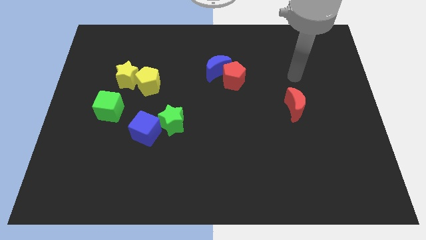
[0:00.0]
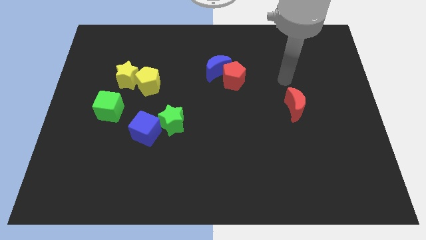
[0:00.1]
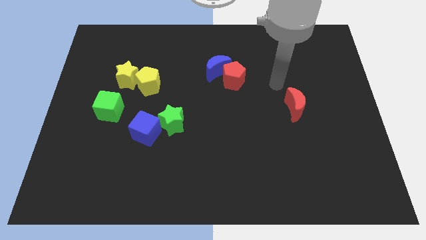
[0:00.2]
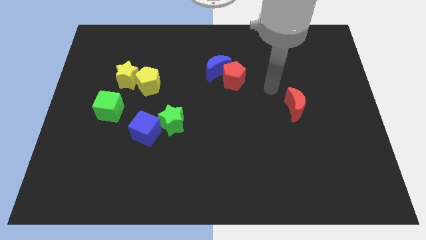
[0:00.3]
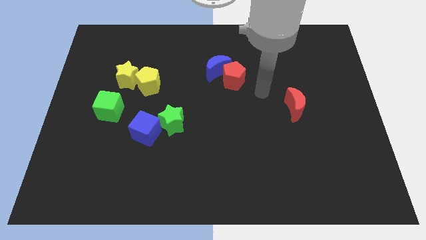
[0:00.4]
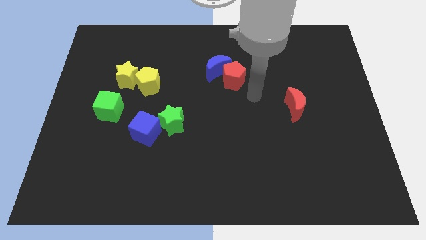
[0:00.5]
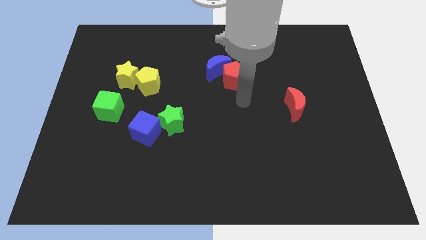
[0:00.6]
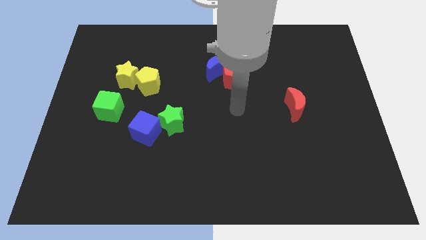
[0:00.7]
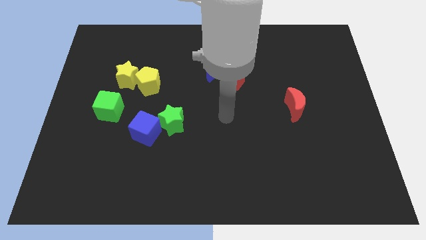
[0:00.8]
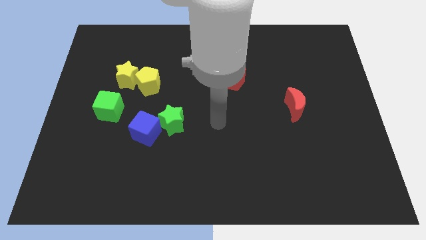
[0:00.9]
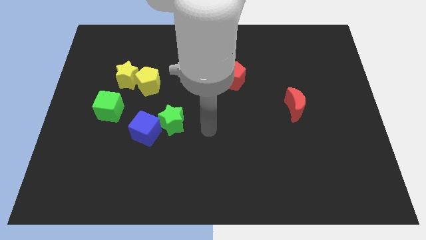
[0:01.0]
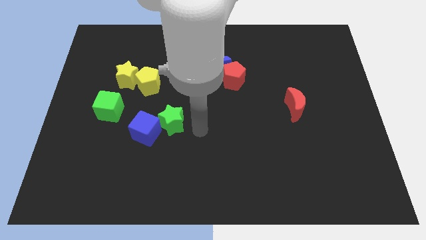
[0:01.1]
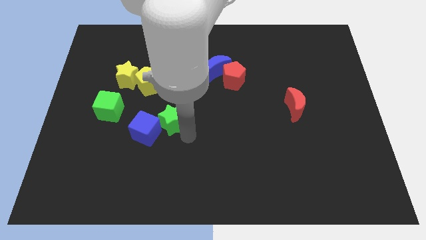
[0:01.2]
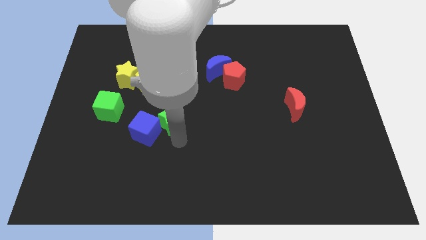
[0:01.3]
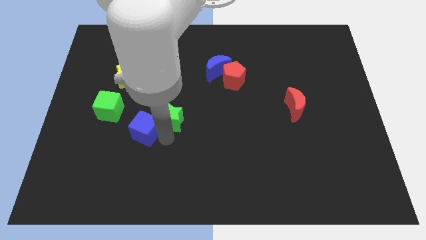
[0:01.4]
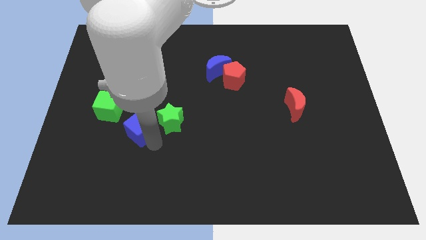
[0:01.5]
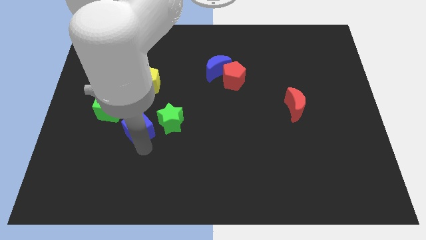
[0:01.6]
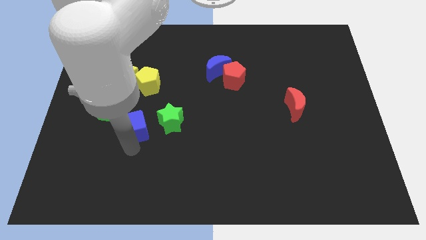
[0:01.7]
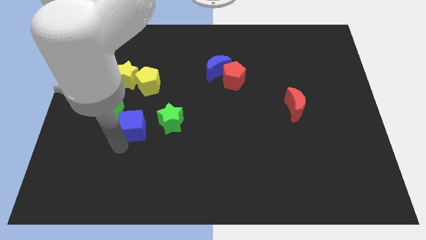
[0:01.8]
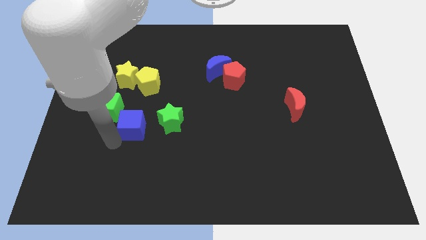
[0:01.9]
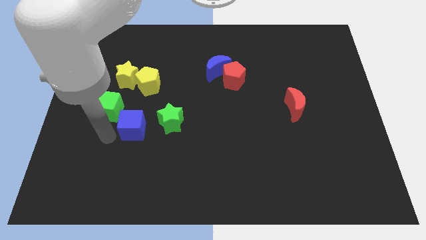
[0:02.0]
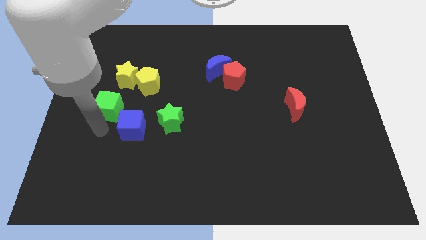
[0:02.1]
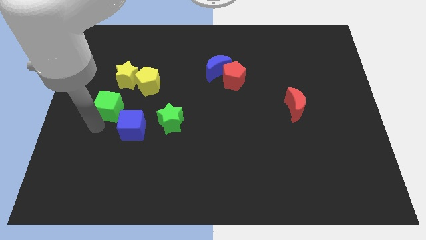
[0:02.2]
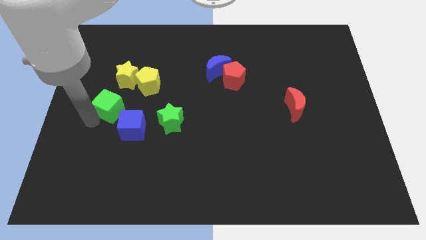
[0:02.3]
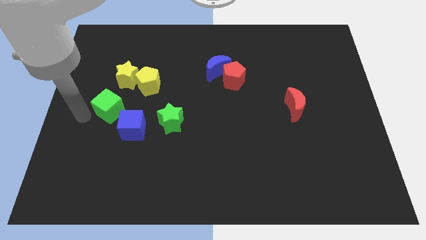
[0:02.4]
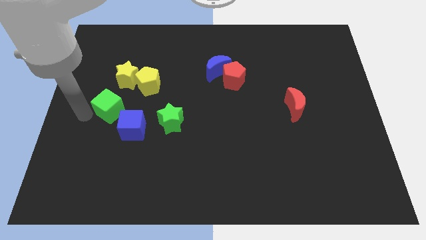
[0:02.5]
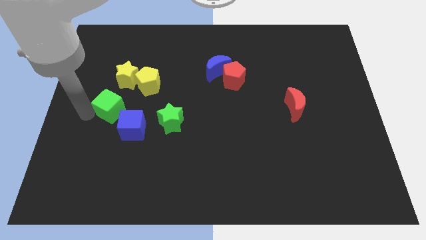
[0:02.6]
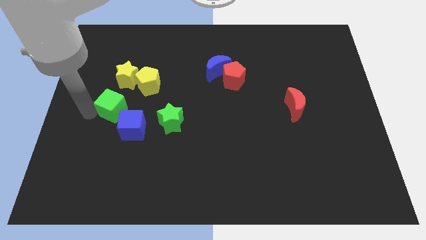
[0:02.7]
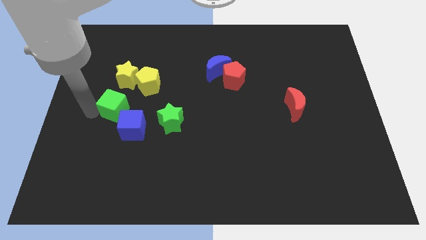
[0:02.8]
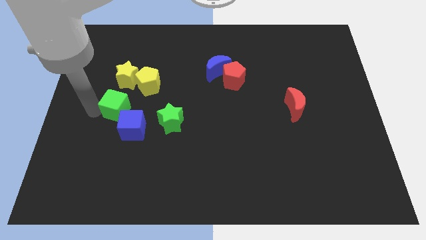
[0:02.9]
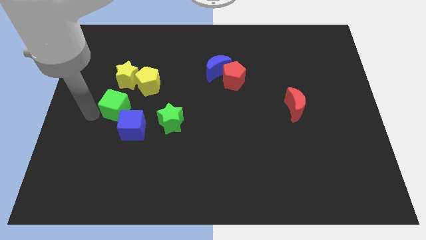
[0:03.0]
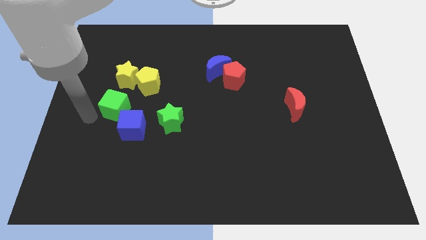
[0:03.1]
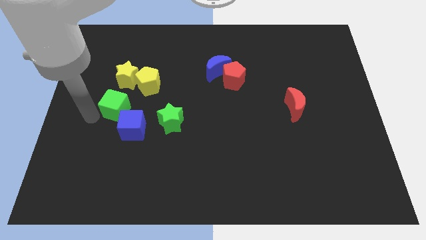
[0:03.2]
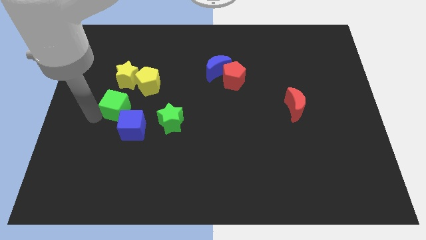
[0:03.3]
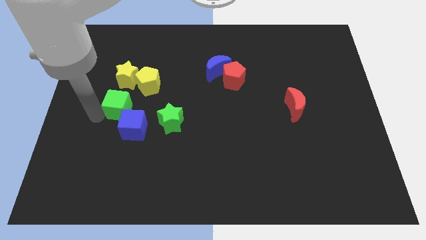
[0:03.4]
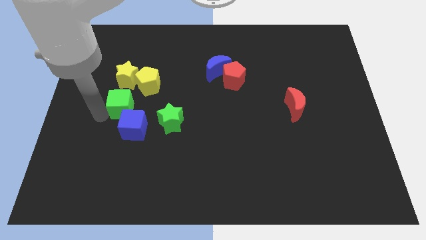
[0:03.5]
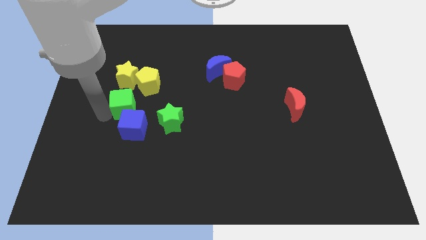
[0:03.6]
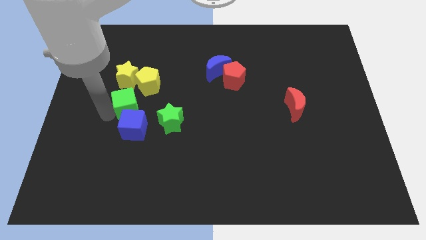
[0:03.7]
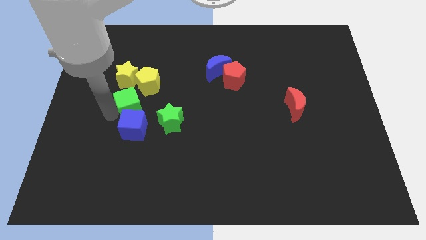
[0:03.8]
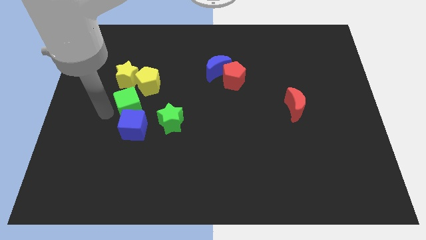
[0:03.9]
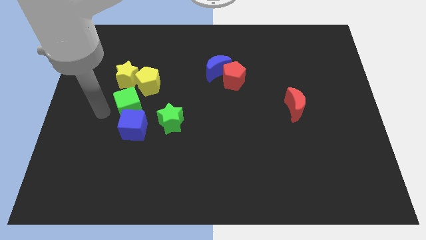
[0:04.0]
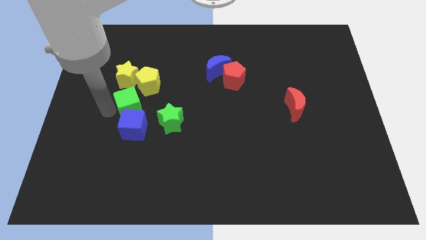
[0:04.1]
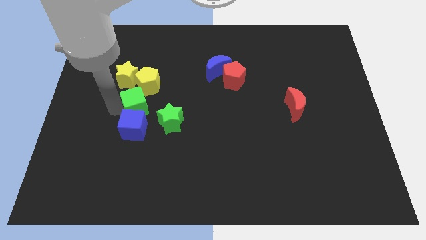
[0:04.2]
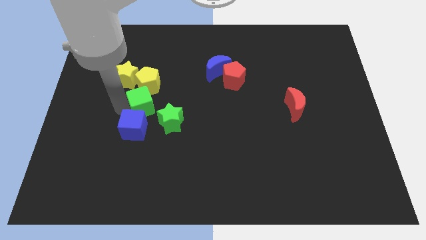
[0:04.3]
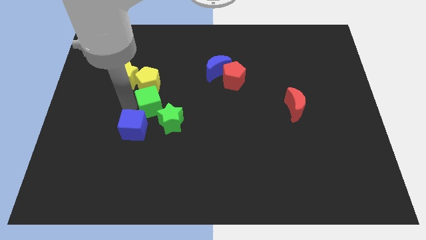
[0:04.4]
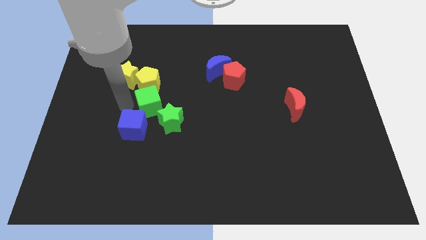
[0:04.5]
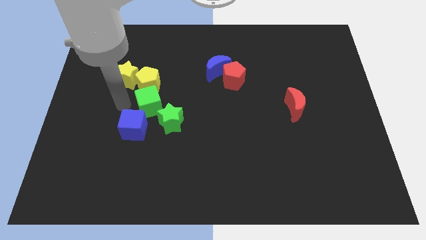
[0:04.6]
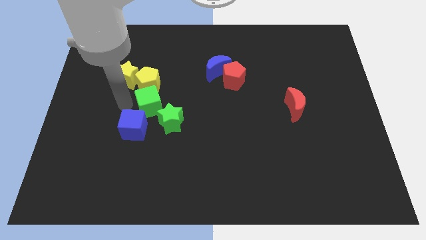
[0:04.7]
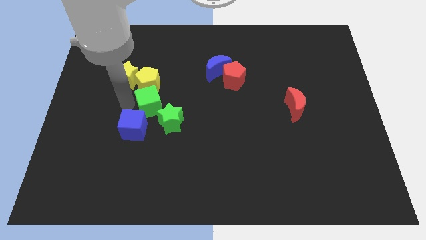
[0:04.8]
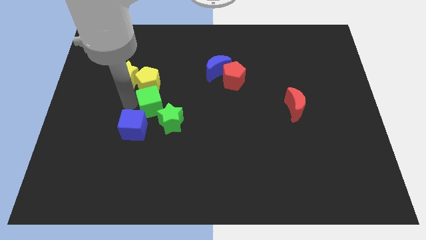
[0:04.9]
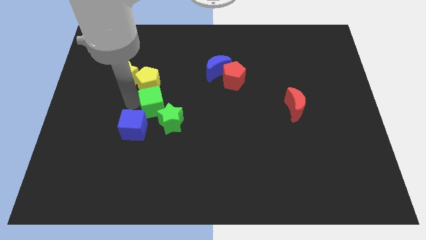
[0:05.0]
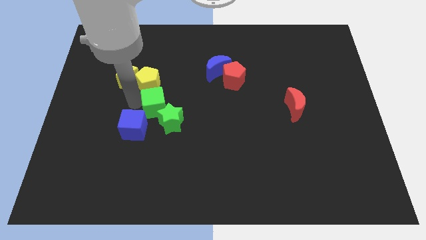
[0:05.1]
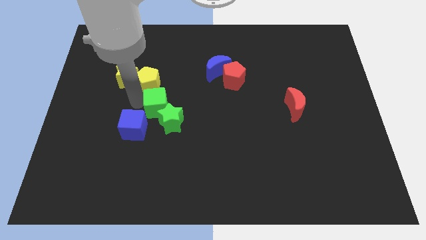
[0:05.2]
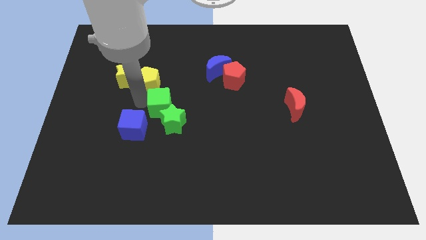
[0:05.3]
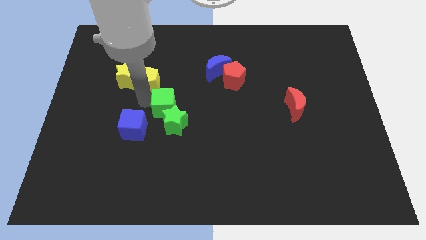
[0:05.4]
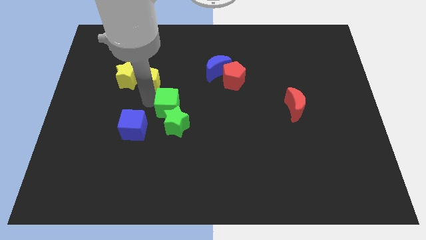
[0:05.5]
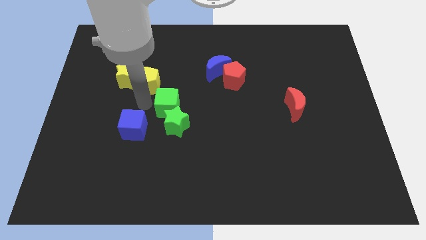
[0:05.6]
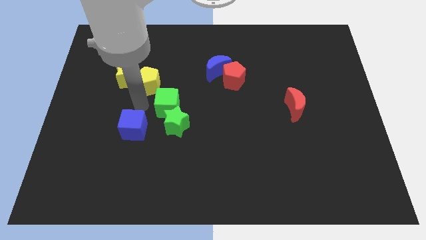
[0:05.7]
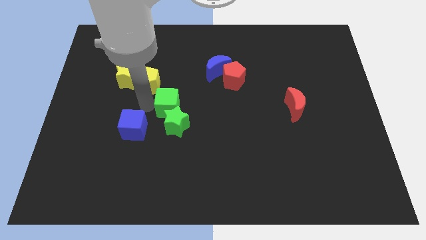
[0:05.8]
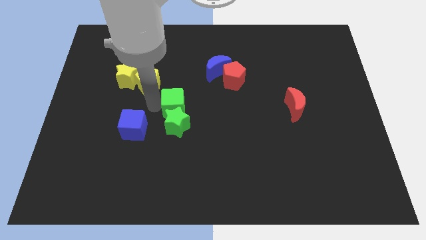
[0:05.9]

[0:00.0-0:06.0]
move the green cube to the top right of the green star
